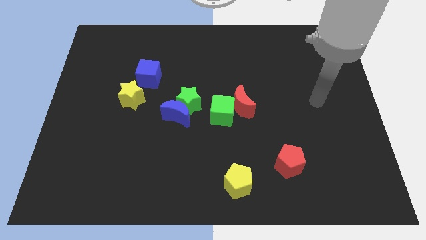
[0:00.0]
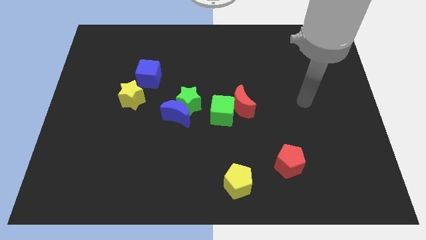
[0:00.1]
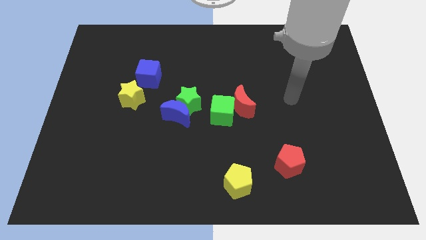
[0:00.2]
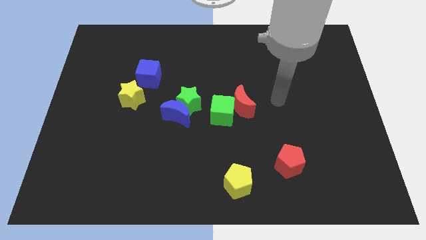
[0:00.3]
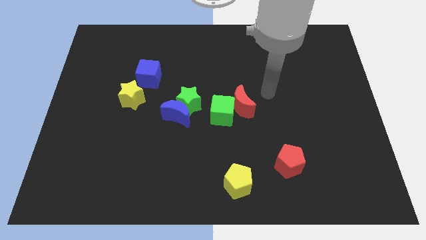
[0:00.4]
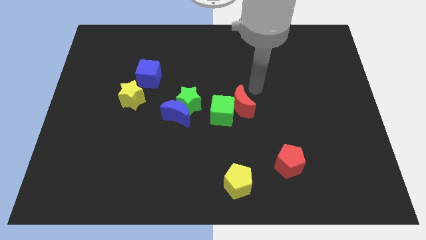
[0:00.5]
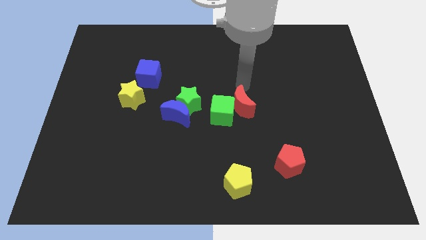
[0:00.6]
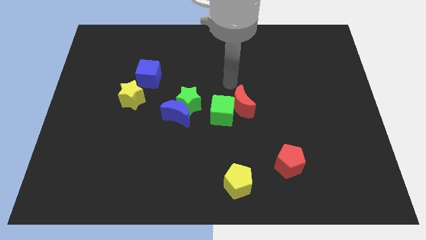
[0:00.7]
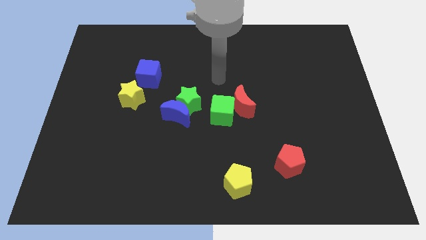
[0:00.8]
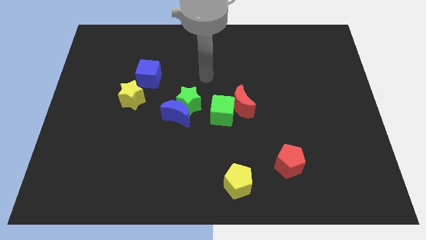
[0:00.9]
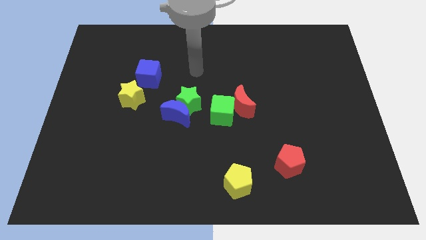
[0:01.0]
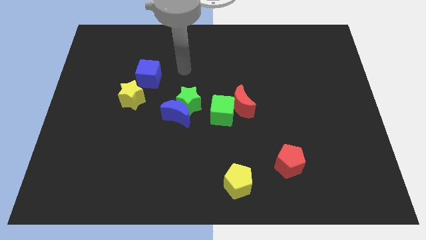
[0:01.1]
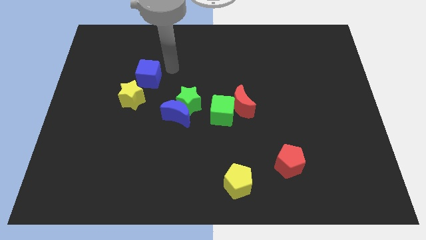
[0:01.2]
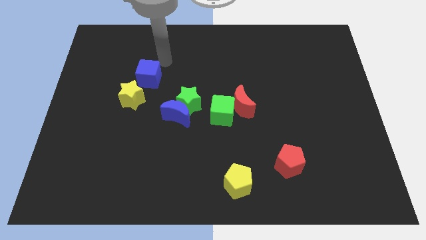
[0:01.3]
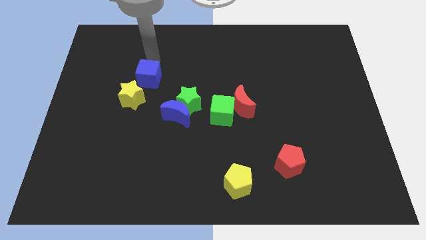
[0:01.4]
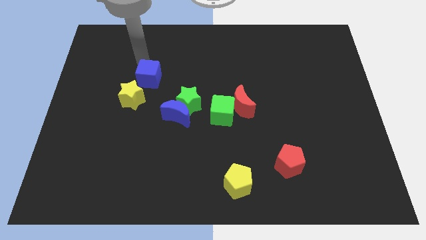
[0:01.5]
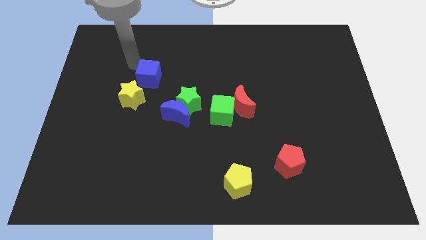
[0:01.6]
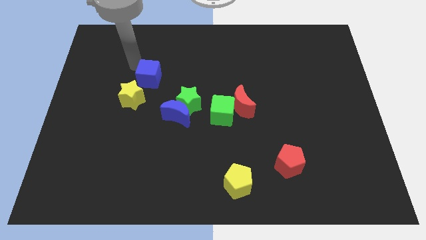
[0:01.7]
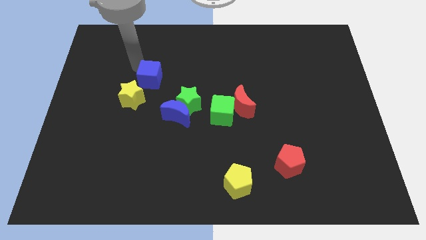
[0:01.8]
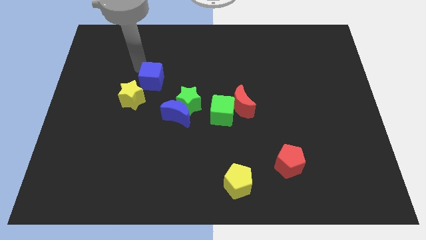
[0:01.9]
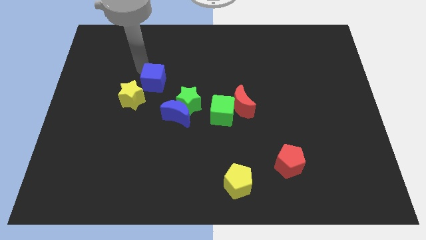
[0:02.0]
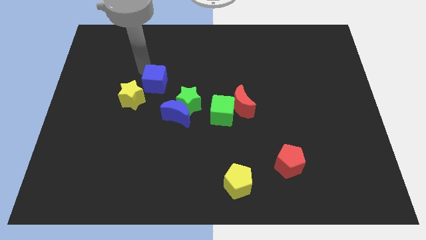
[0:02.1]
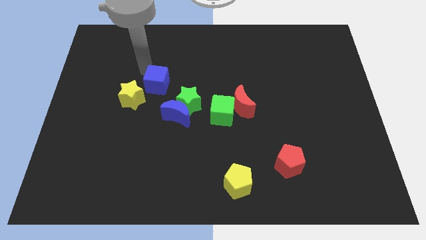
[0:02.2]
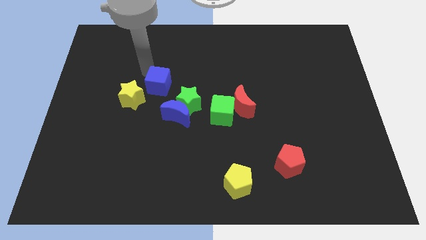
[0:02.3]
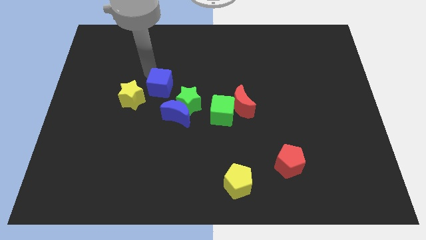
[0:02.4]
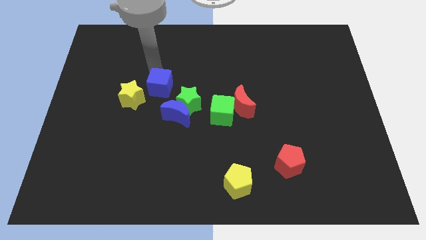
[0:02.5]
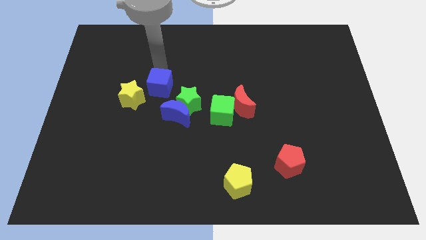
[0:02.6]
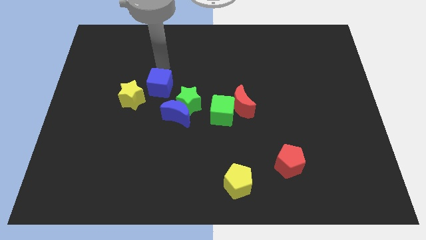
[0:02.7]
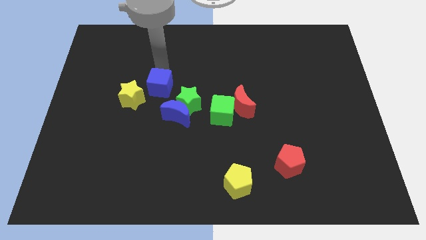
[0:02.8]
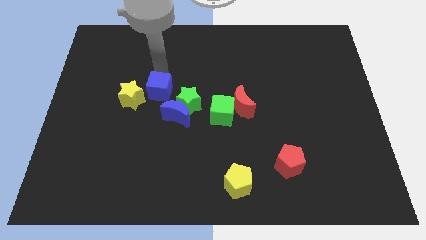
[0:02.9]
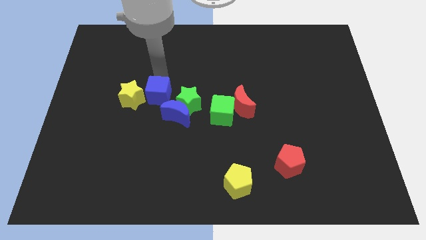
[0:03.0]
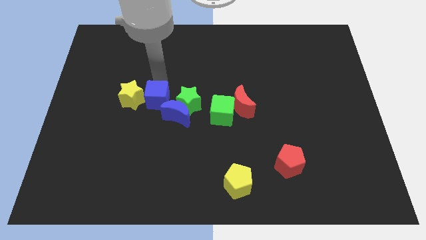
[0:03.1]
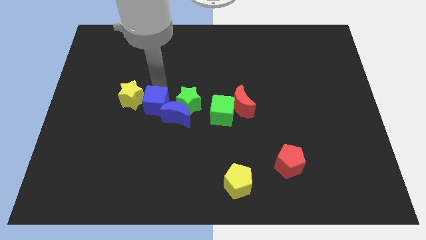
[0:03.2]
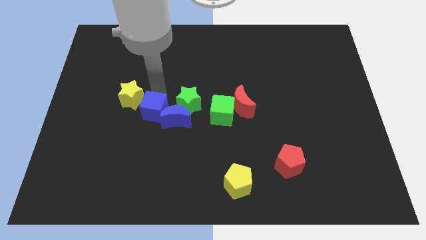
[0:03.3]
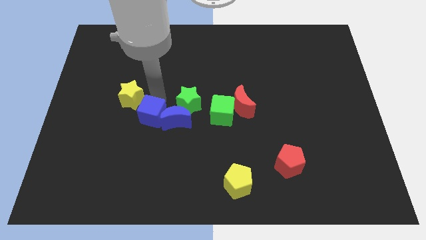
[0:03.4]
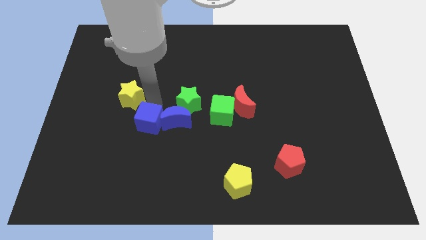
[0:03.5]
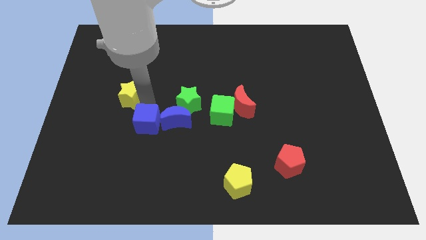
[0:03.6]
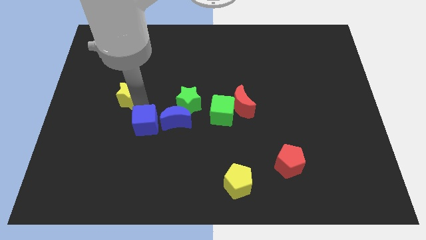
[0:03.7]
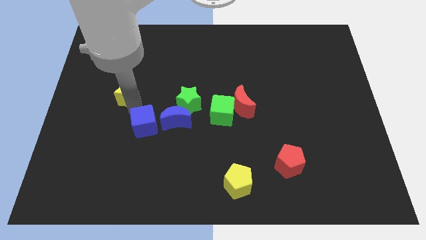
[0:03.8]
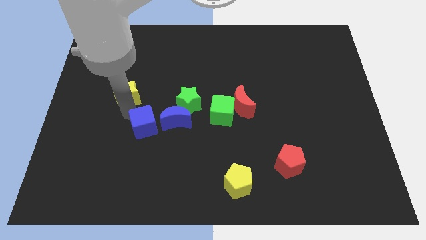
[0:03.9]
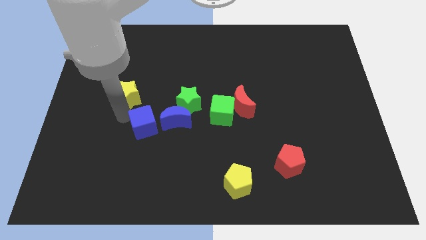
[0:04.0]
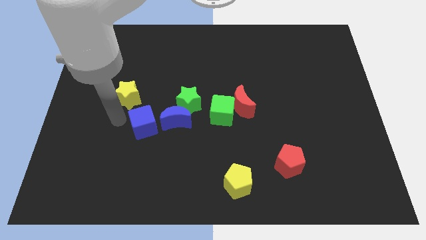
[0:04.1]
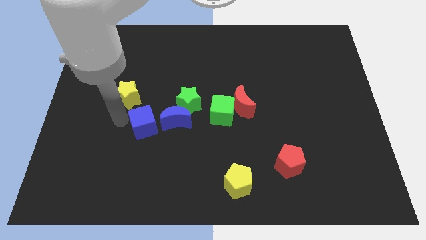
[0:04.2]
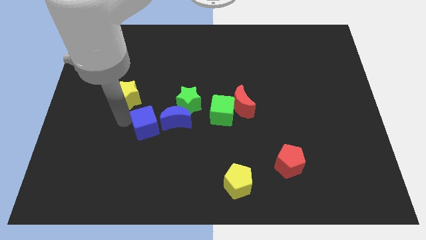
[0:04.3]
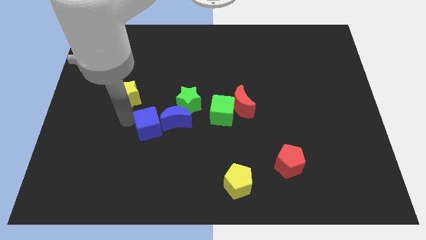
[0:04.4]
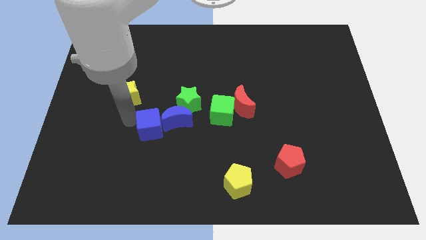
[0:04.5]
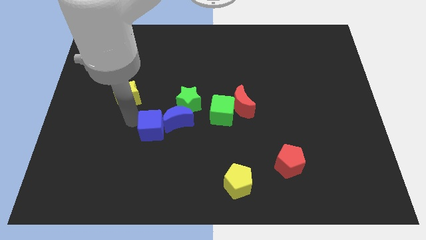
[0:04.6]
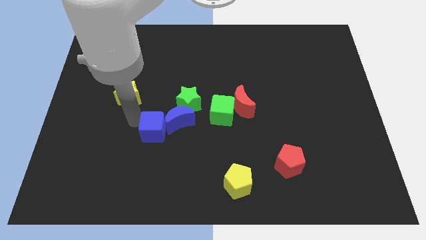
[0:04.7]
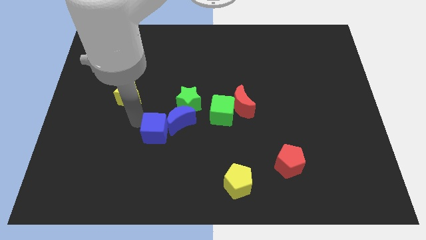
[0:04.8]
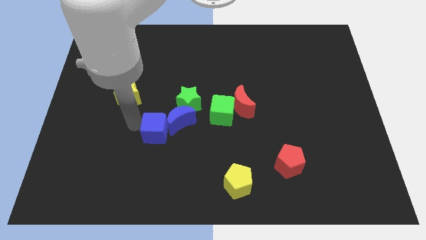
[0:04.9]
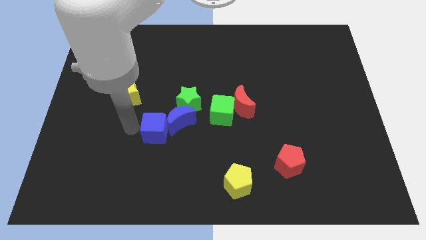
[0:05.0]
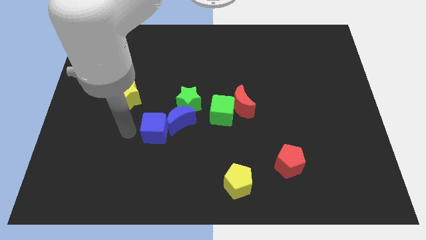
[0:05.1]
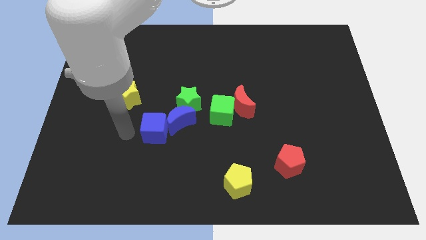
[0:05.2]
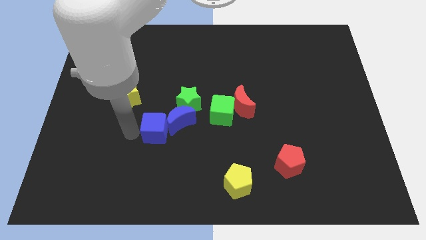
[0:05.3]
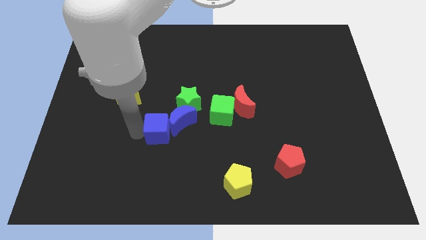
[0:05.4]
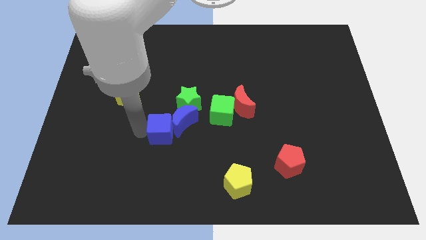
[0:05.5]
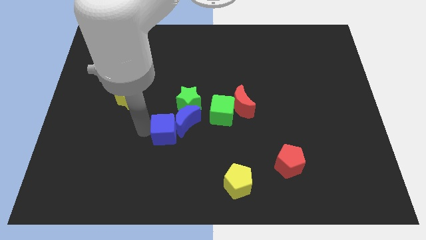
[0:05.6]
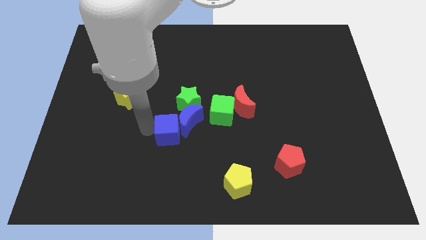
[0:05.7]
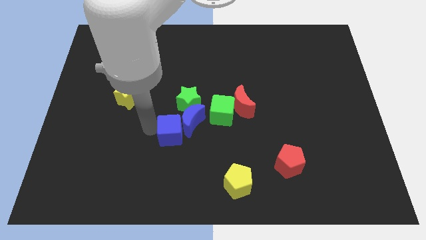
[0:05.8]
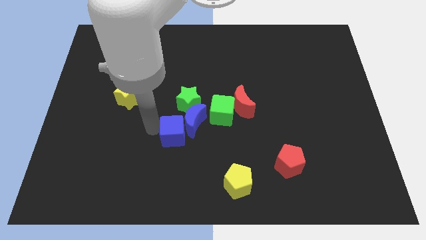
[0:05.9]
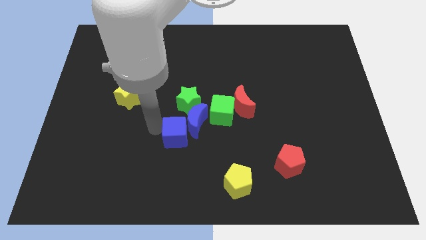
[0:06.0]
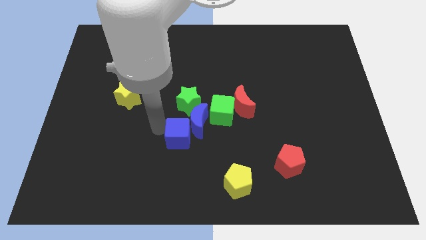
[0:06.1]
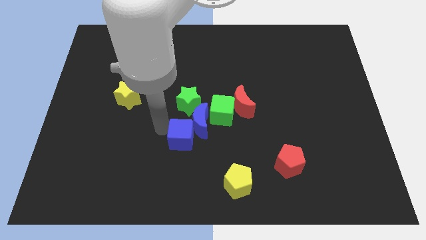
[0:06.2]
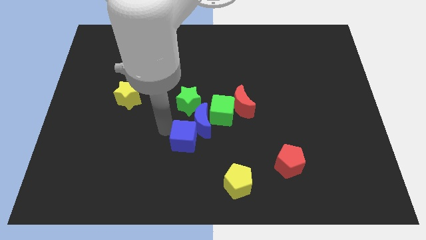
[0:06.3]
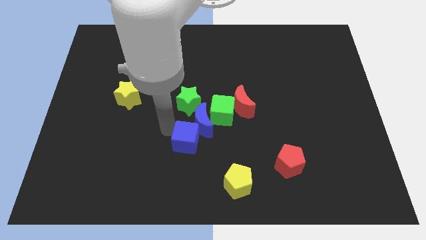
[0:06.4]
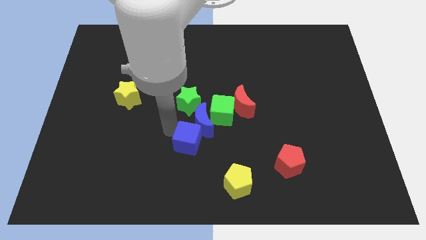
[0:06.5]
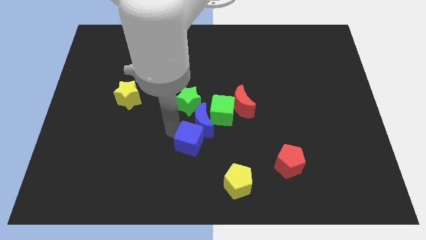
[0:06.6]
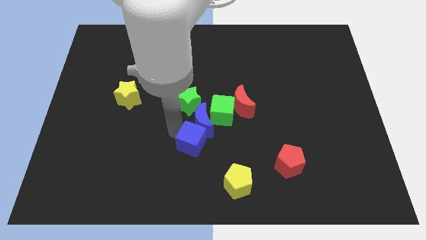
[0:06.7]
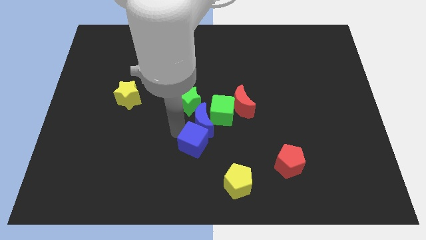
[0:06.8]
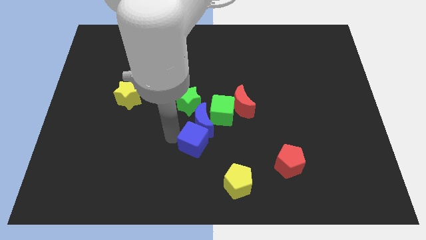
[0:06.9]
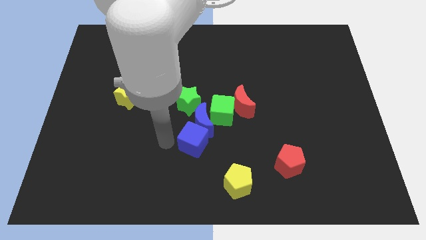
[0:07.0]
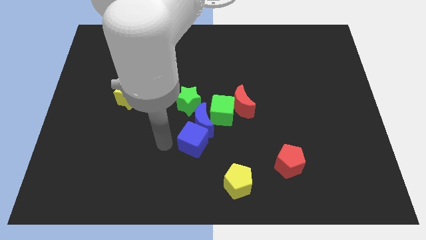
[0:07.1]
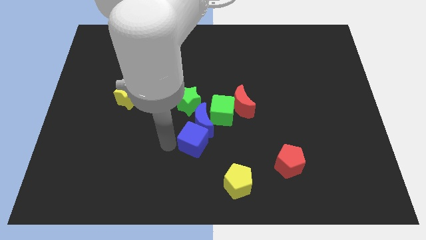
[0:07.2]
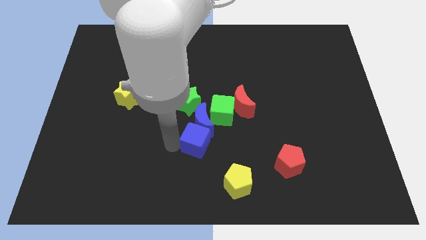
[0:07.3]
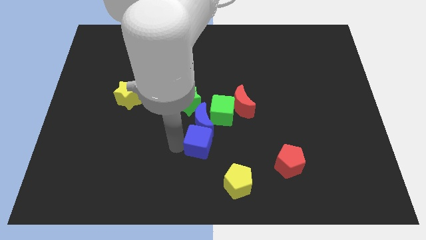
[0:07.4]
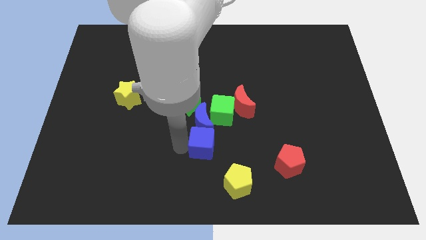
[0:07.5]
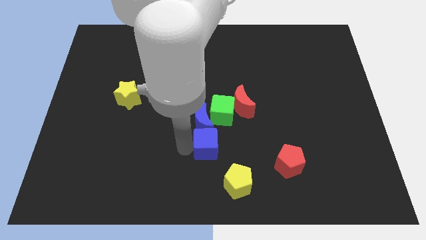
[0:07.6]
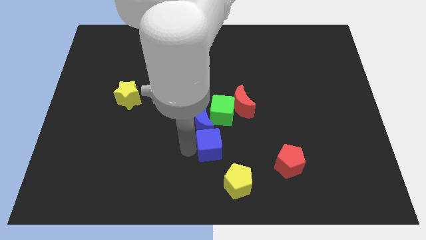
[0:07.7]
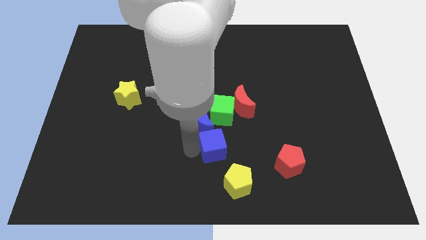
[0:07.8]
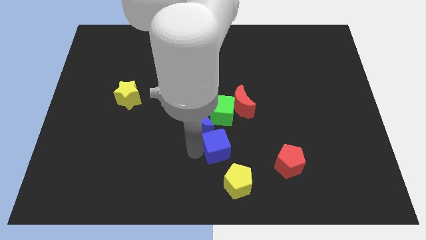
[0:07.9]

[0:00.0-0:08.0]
put the blue cube to the top side of the yellow pentagon
